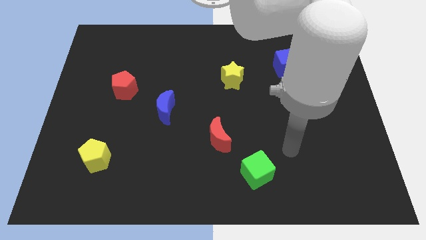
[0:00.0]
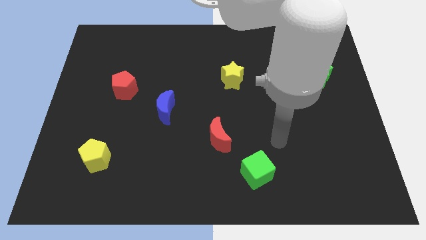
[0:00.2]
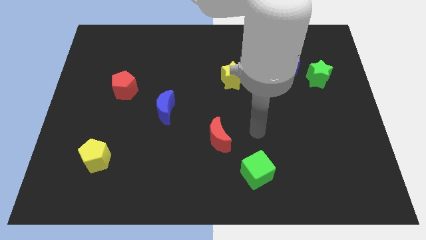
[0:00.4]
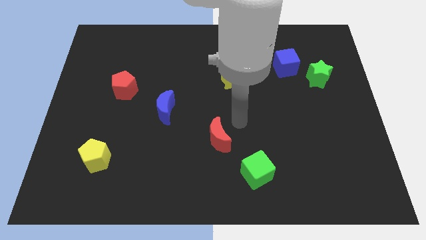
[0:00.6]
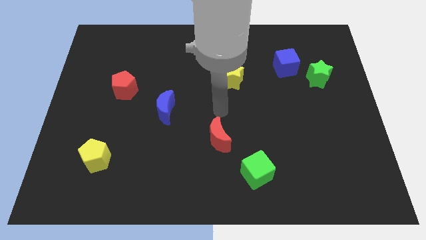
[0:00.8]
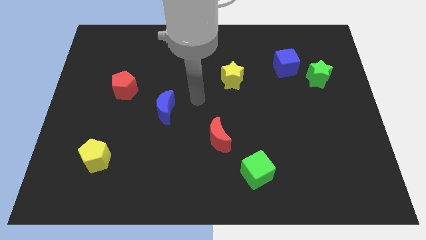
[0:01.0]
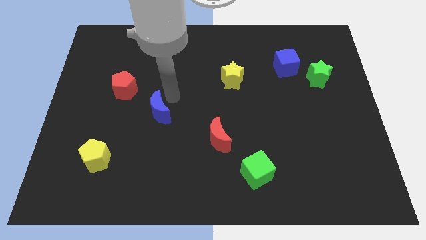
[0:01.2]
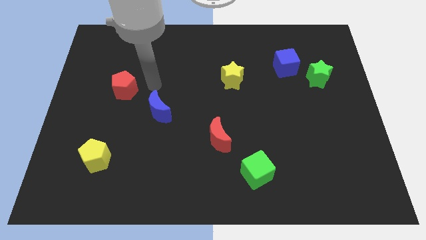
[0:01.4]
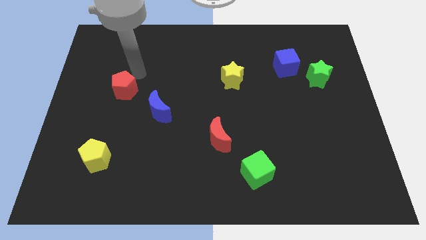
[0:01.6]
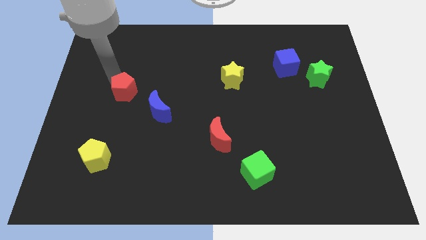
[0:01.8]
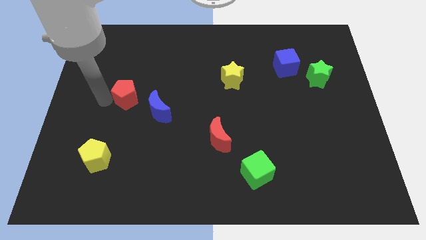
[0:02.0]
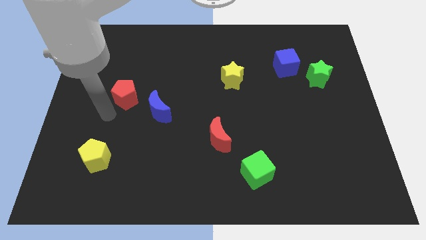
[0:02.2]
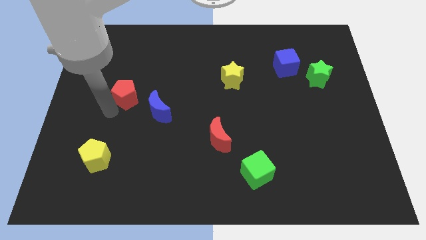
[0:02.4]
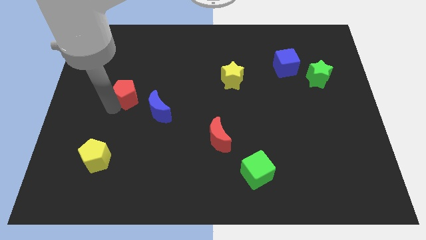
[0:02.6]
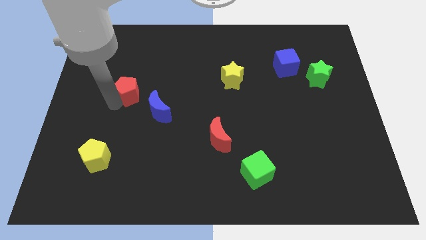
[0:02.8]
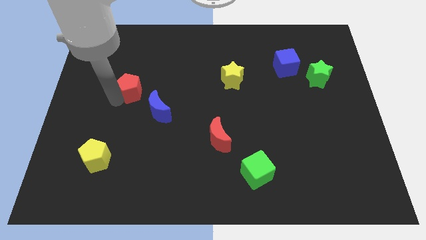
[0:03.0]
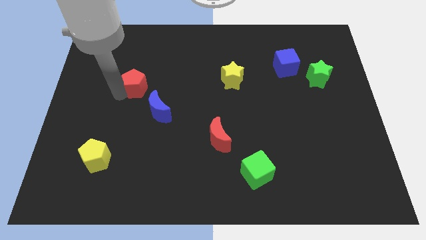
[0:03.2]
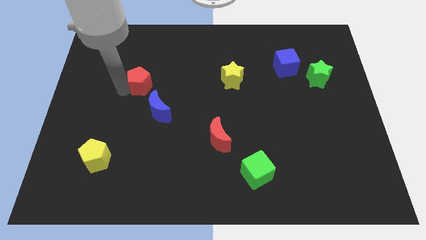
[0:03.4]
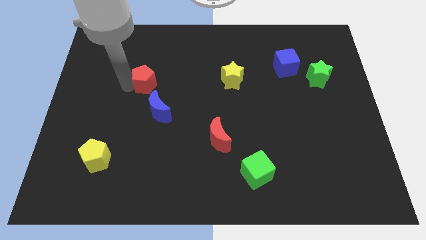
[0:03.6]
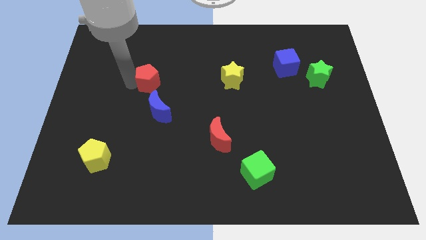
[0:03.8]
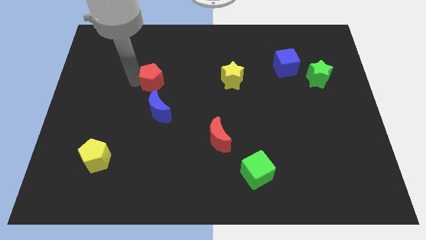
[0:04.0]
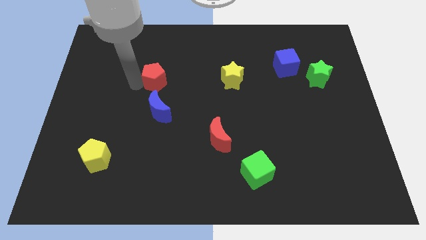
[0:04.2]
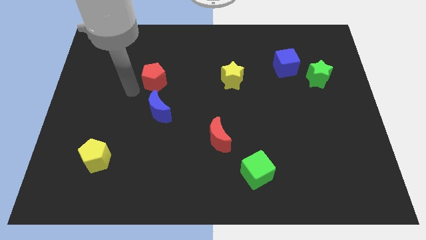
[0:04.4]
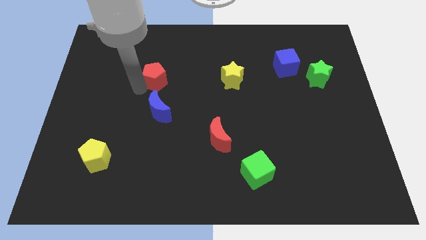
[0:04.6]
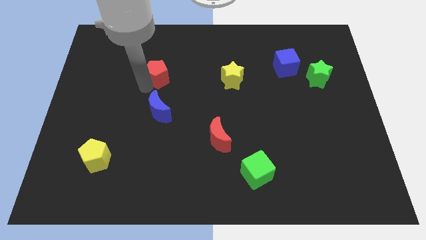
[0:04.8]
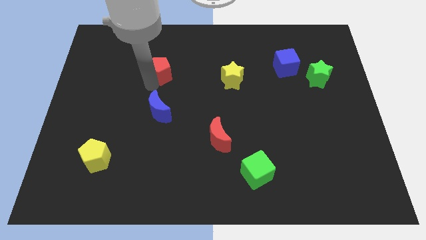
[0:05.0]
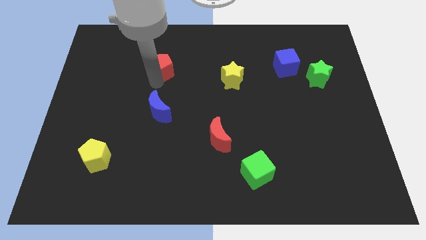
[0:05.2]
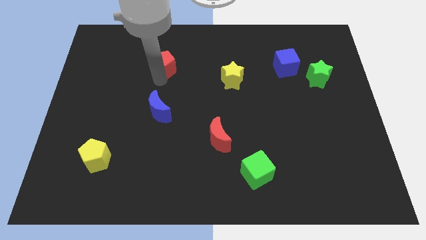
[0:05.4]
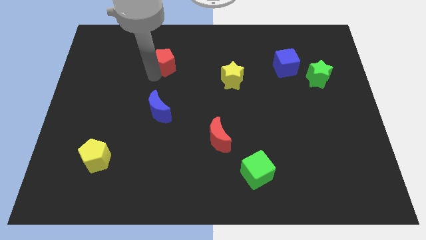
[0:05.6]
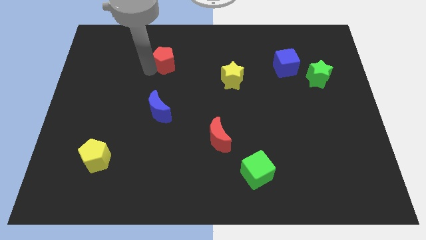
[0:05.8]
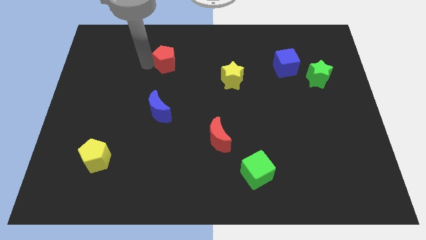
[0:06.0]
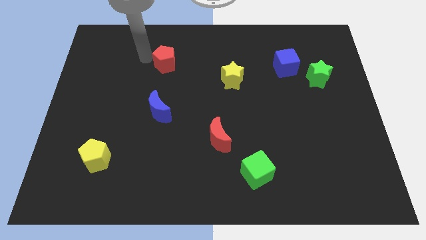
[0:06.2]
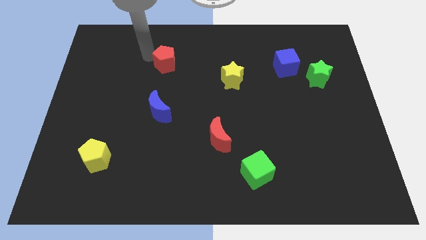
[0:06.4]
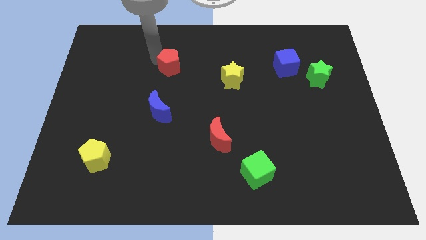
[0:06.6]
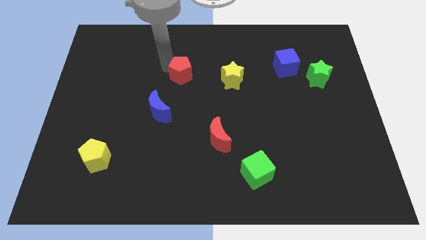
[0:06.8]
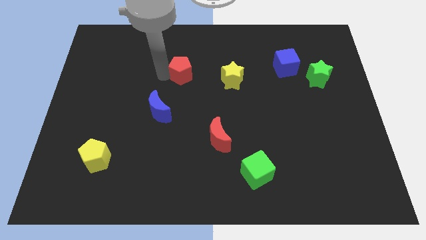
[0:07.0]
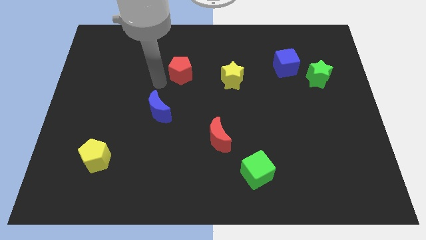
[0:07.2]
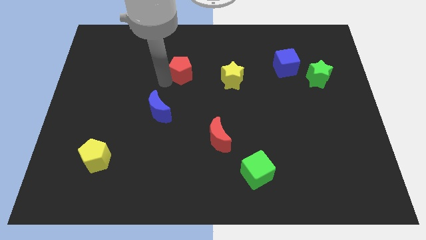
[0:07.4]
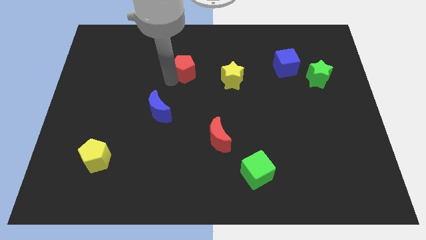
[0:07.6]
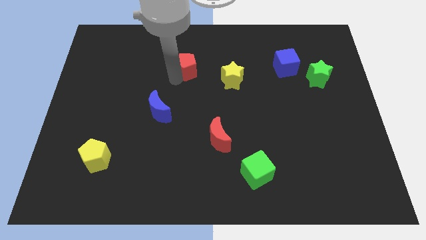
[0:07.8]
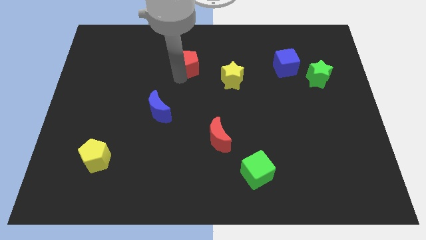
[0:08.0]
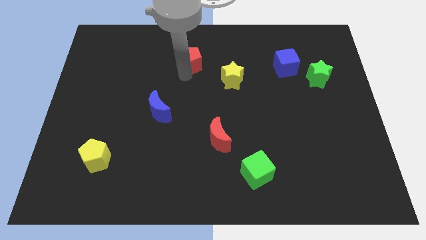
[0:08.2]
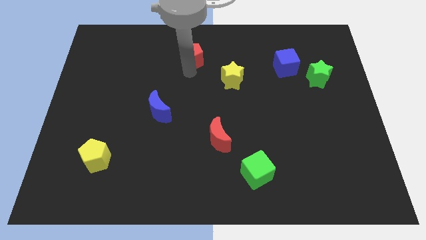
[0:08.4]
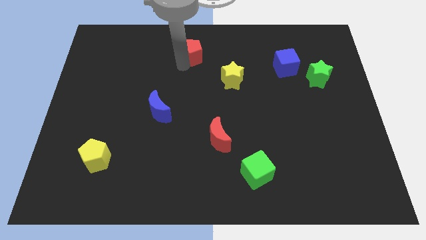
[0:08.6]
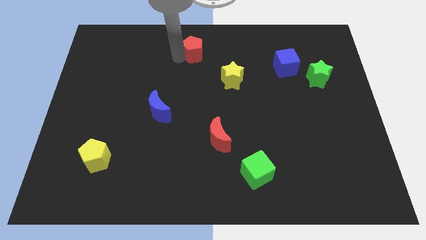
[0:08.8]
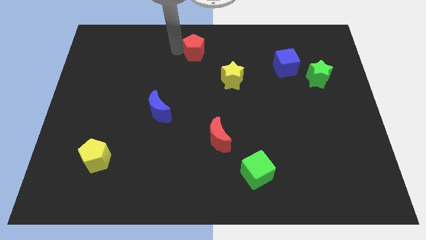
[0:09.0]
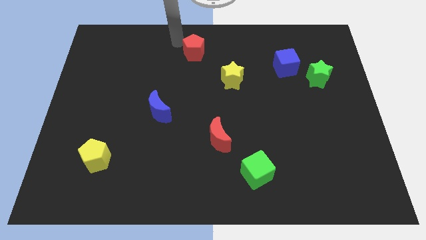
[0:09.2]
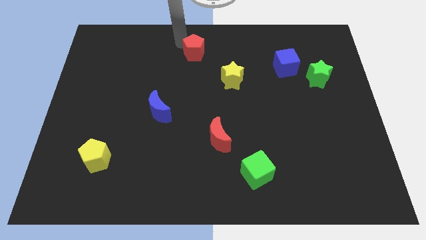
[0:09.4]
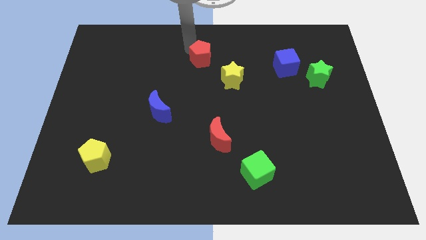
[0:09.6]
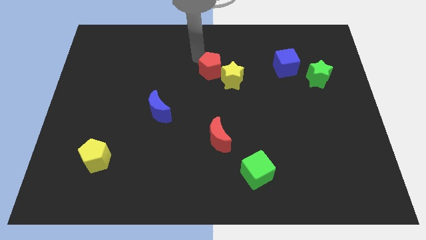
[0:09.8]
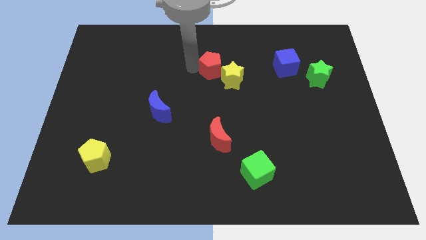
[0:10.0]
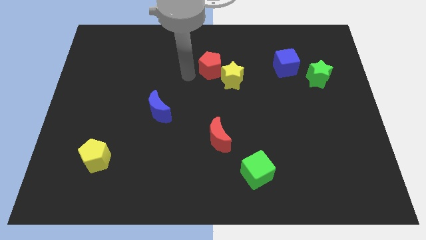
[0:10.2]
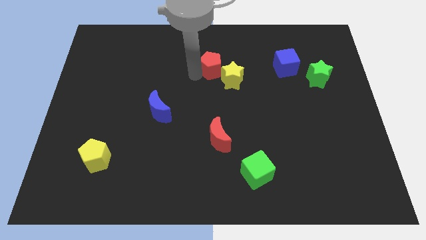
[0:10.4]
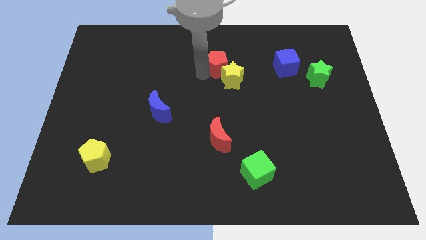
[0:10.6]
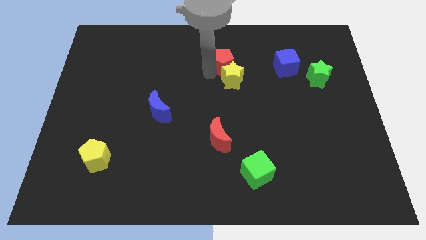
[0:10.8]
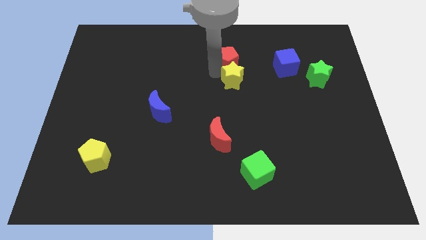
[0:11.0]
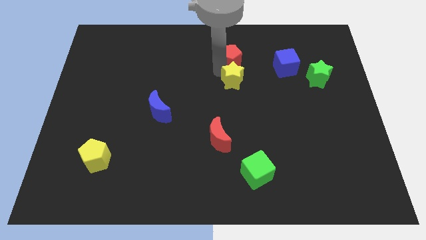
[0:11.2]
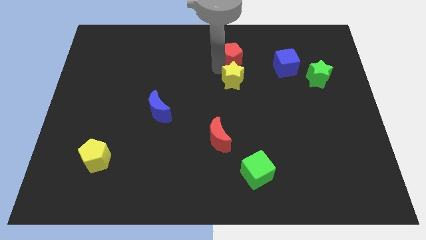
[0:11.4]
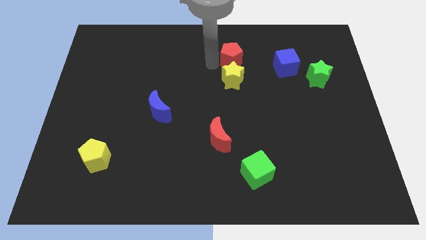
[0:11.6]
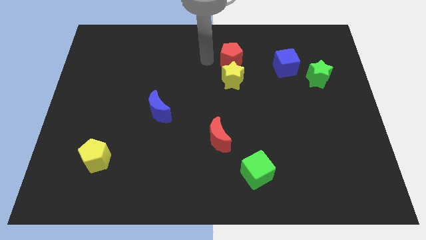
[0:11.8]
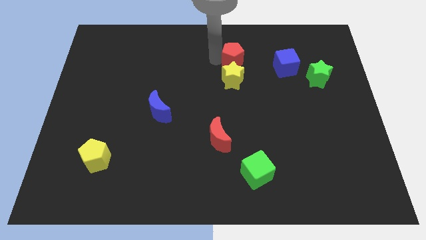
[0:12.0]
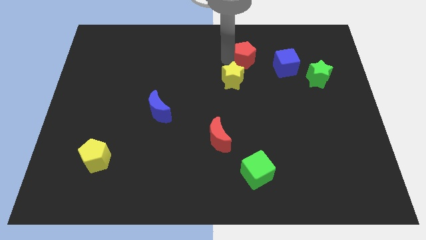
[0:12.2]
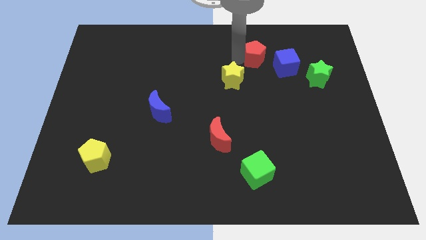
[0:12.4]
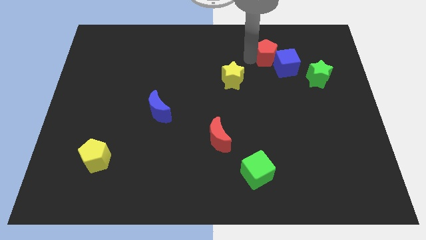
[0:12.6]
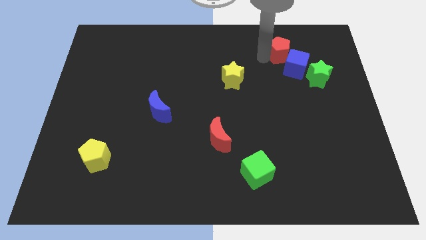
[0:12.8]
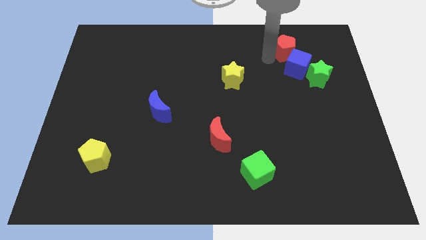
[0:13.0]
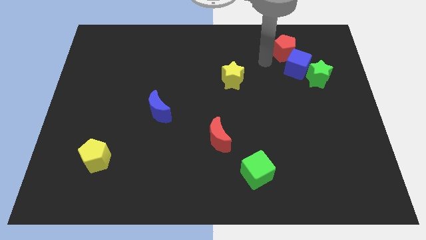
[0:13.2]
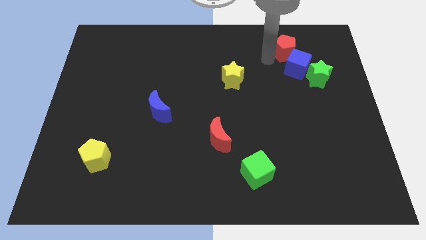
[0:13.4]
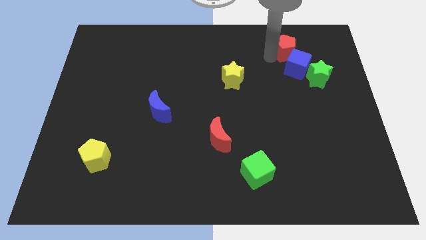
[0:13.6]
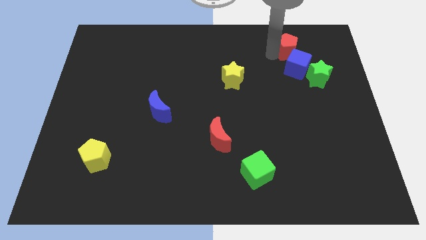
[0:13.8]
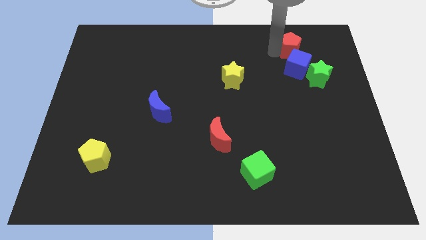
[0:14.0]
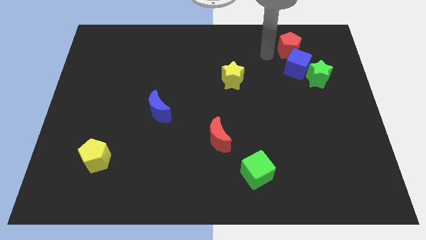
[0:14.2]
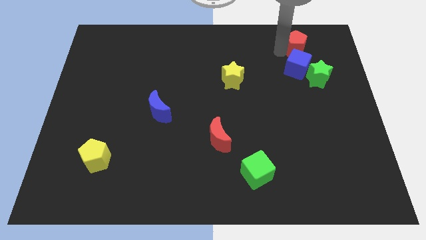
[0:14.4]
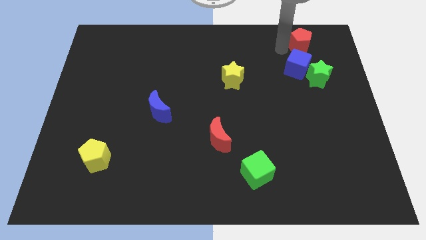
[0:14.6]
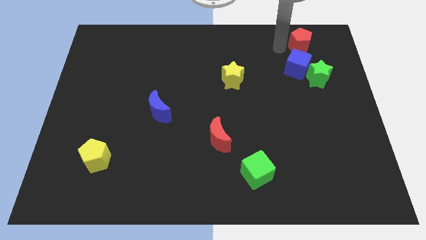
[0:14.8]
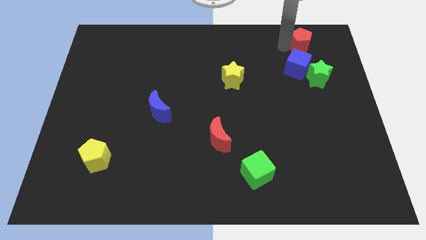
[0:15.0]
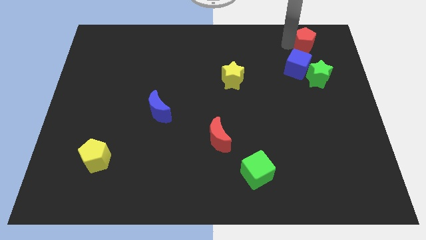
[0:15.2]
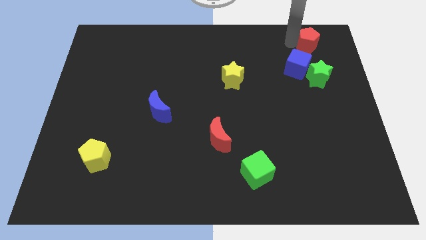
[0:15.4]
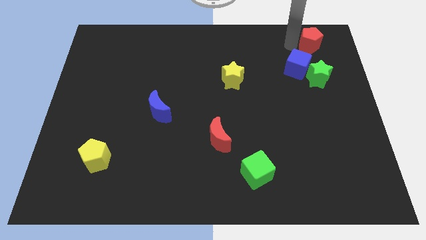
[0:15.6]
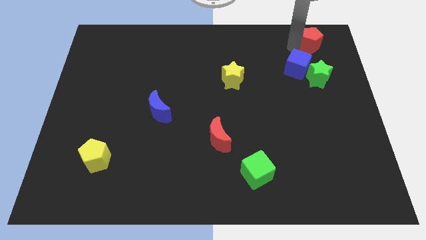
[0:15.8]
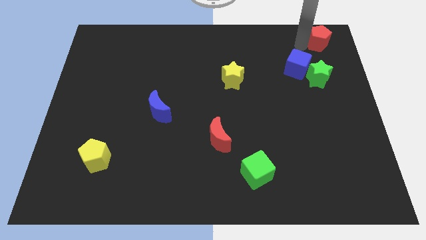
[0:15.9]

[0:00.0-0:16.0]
move the red pentagon to the top right
